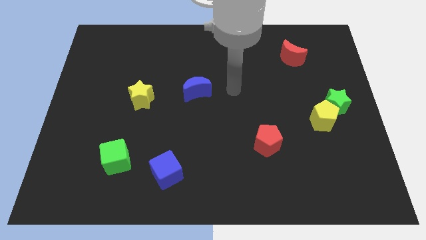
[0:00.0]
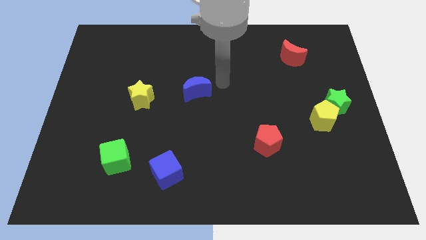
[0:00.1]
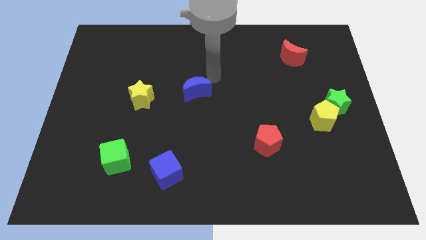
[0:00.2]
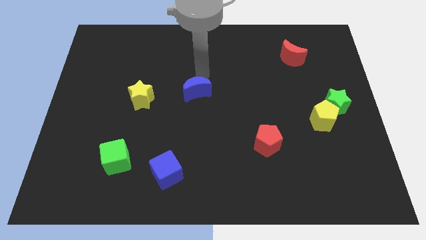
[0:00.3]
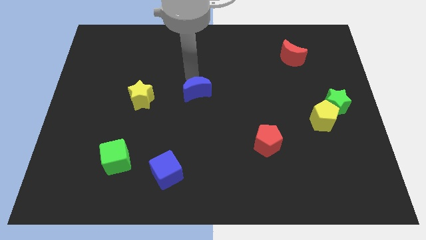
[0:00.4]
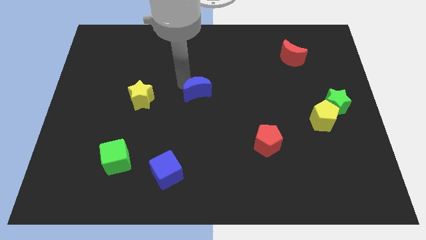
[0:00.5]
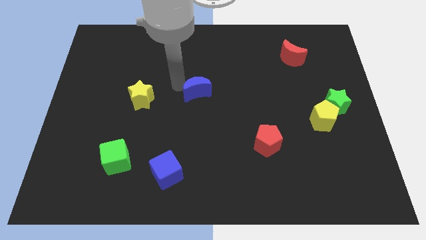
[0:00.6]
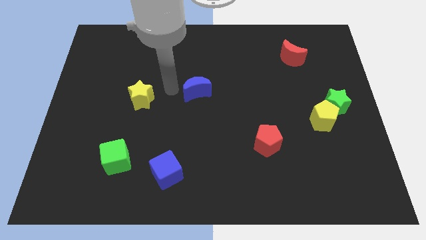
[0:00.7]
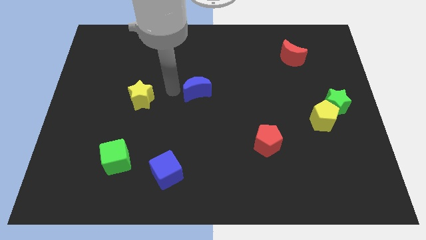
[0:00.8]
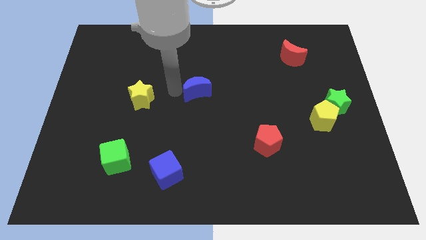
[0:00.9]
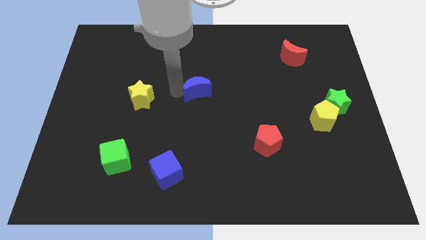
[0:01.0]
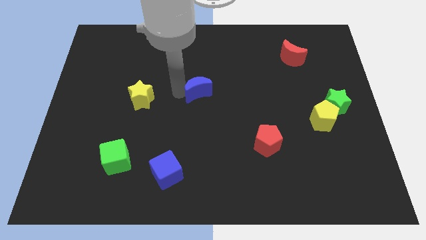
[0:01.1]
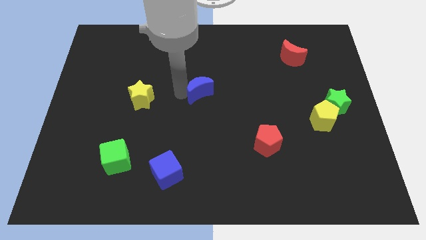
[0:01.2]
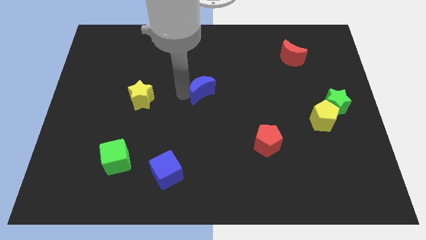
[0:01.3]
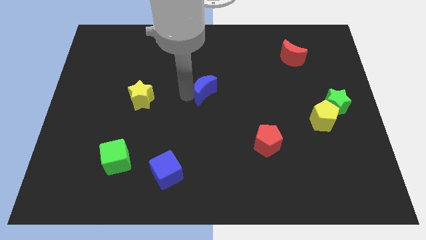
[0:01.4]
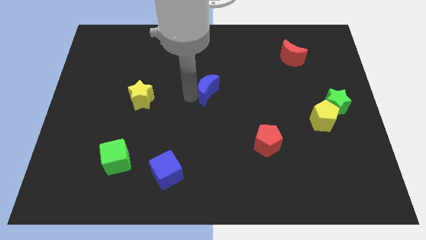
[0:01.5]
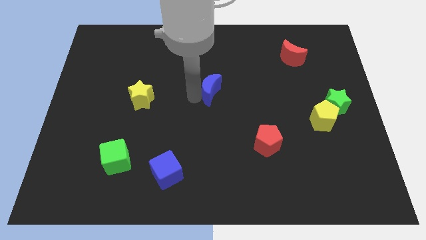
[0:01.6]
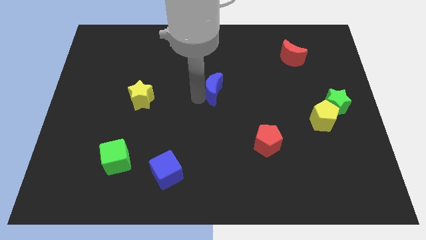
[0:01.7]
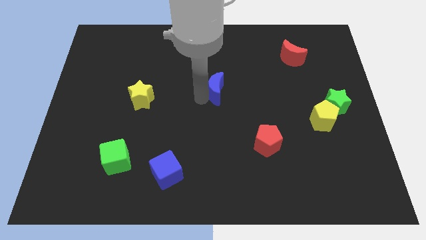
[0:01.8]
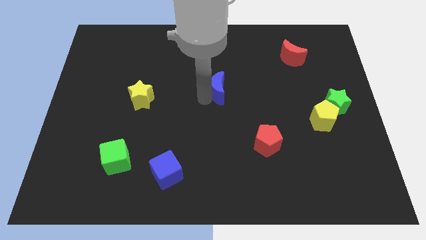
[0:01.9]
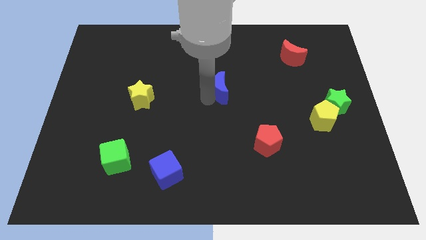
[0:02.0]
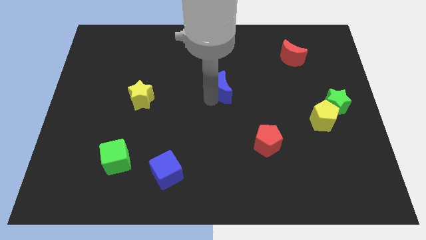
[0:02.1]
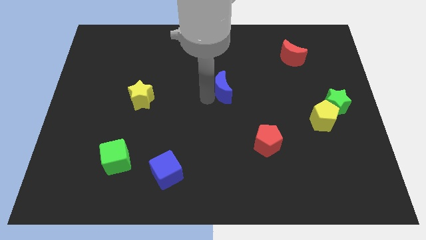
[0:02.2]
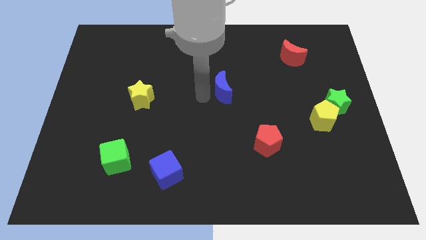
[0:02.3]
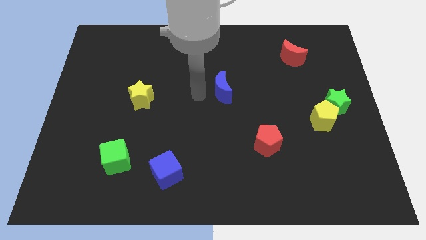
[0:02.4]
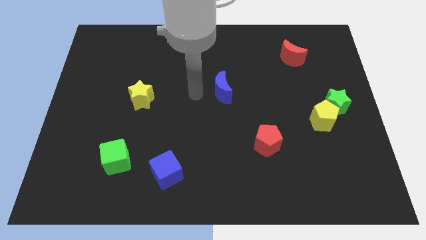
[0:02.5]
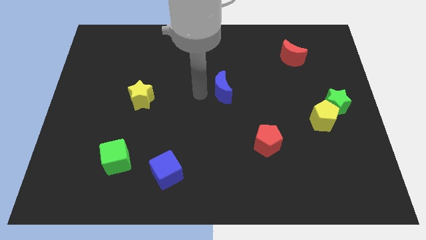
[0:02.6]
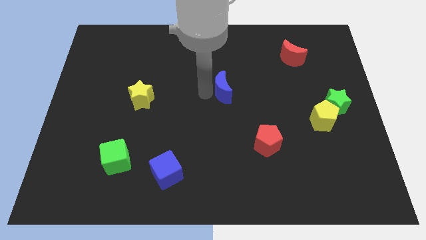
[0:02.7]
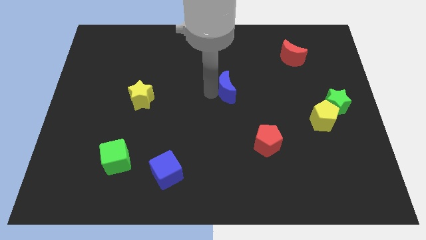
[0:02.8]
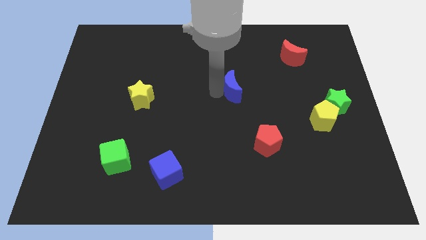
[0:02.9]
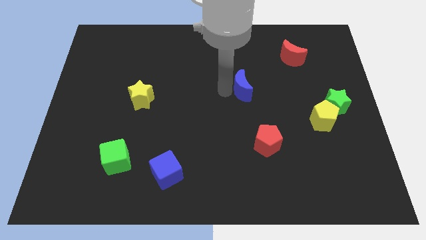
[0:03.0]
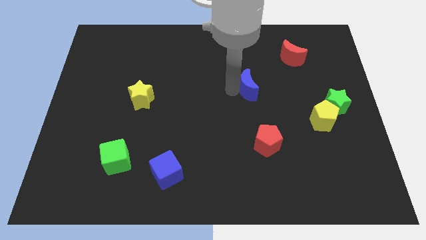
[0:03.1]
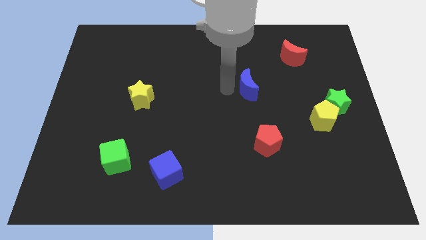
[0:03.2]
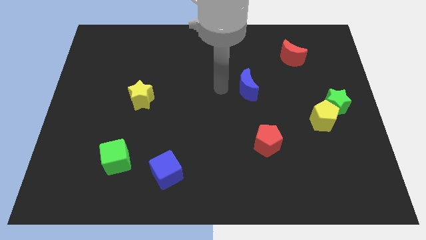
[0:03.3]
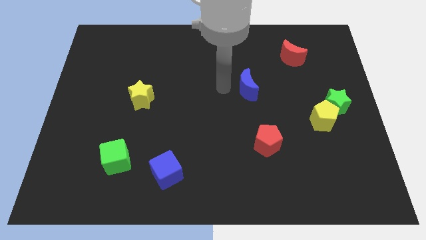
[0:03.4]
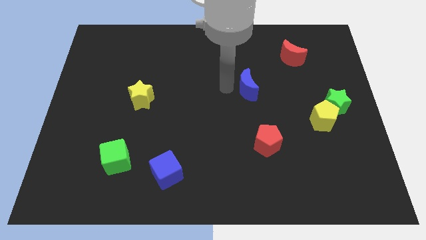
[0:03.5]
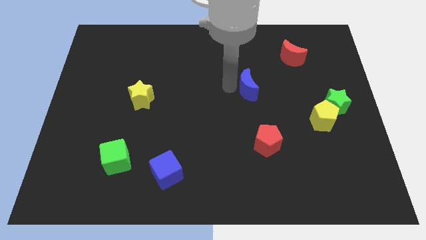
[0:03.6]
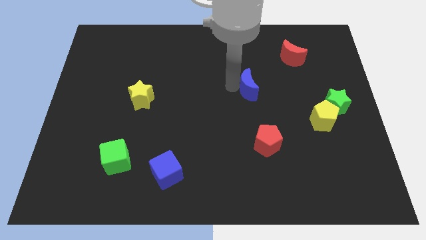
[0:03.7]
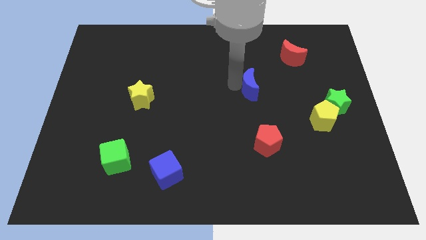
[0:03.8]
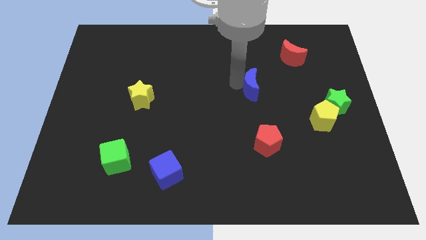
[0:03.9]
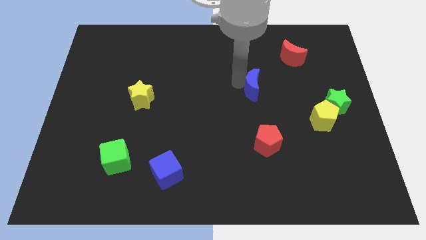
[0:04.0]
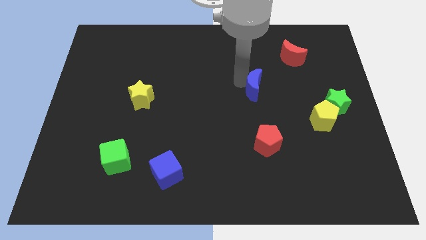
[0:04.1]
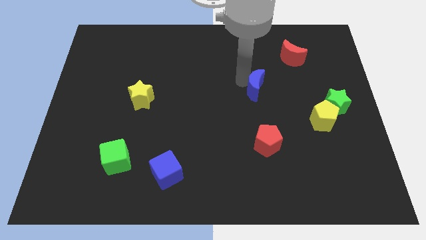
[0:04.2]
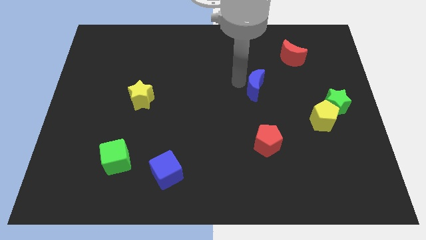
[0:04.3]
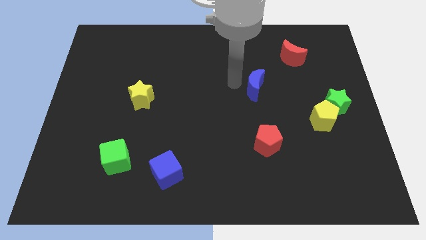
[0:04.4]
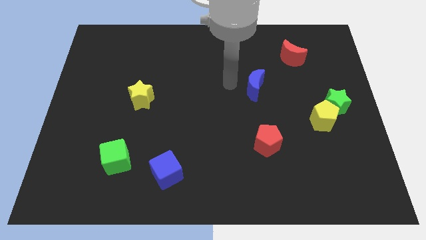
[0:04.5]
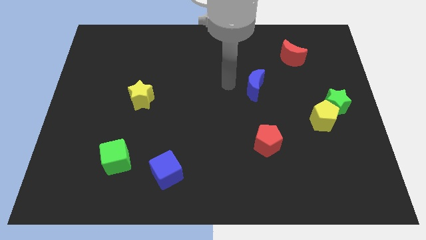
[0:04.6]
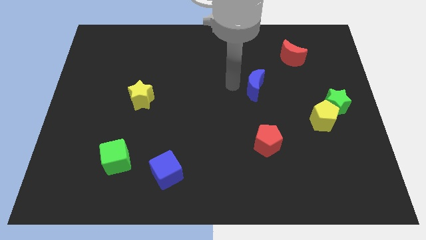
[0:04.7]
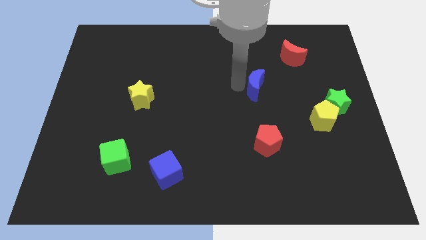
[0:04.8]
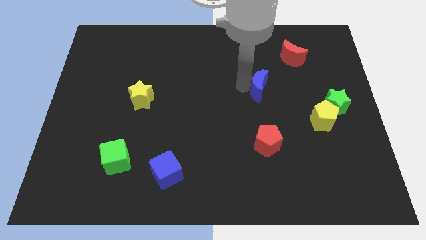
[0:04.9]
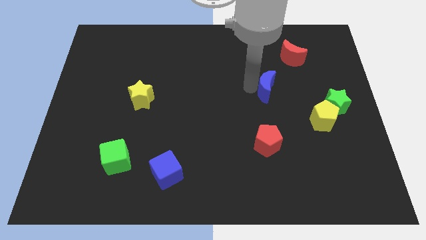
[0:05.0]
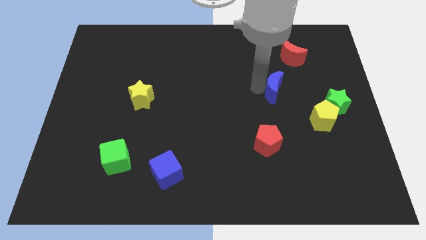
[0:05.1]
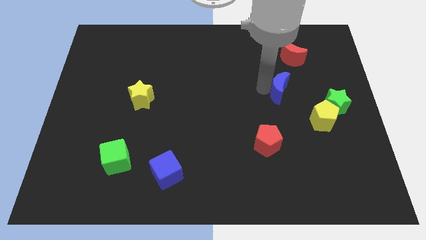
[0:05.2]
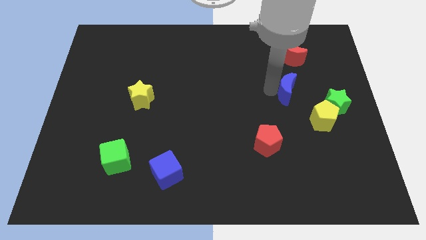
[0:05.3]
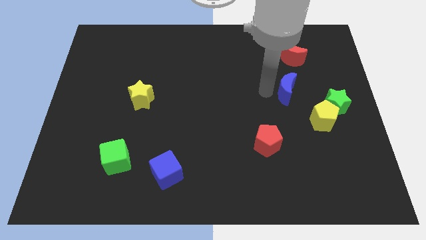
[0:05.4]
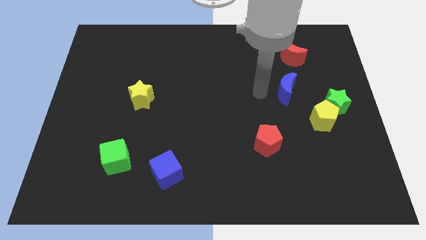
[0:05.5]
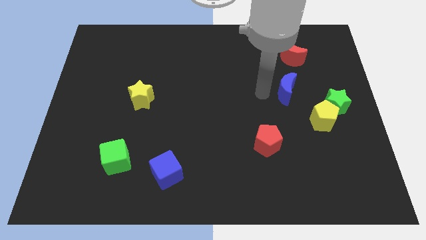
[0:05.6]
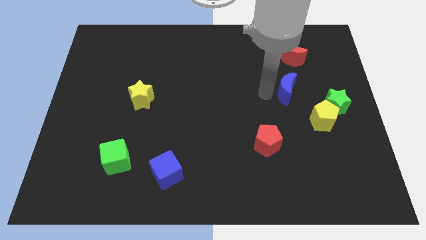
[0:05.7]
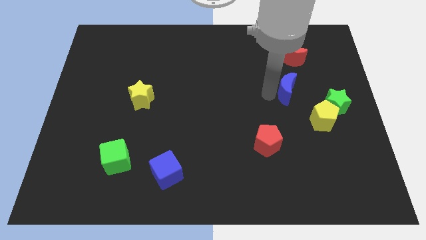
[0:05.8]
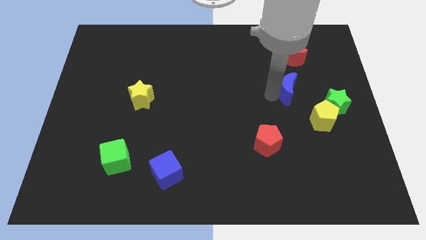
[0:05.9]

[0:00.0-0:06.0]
put the blue moon to the top left side of the green star
